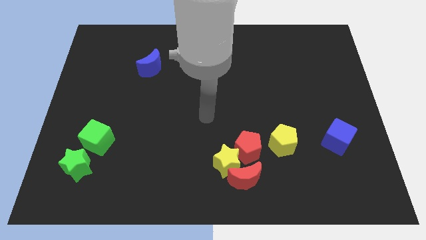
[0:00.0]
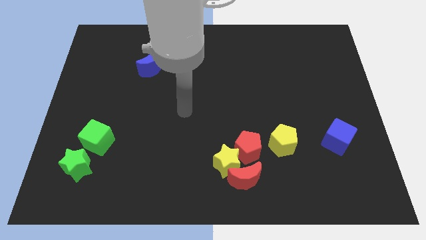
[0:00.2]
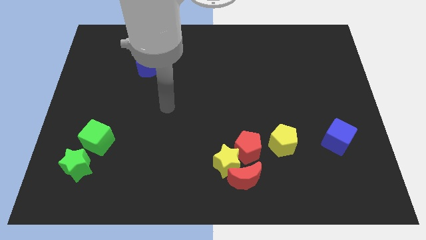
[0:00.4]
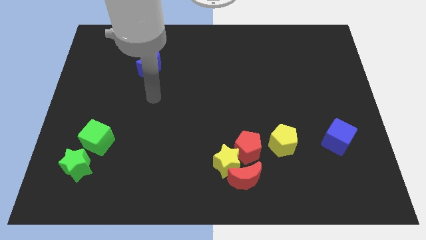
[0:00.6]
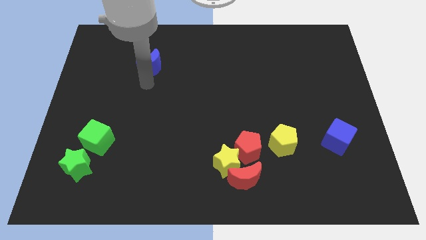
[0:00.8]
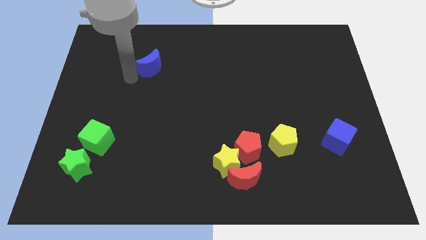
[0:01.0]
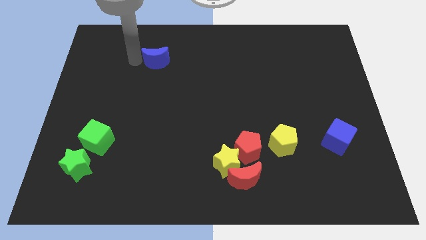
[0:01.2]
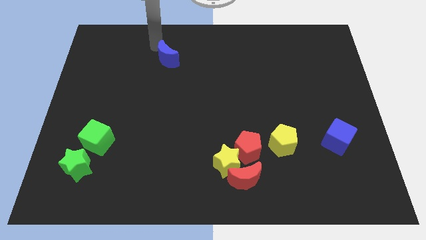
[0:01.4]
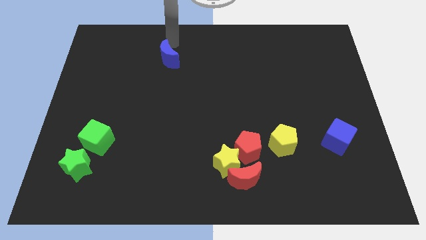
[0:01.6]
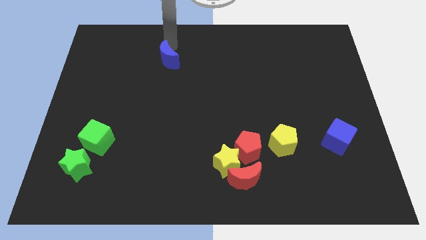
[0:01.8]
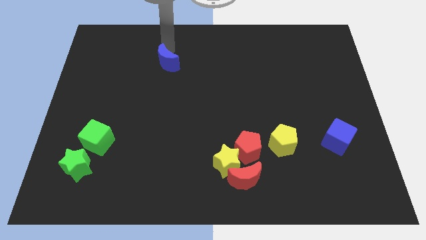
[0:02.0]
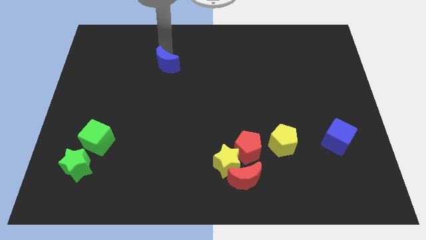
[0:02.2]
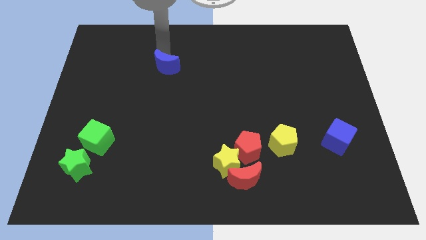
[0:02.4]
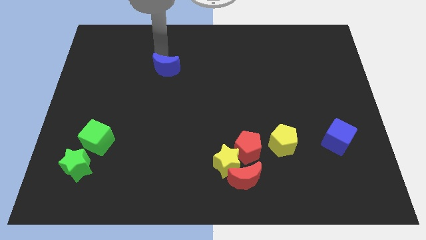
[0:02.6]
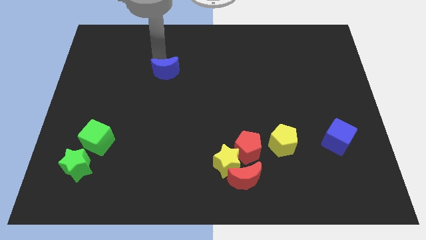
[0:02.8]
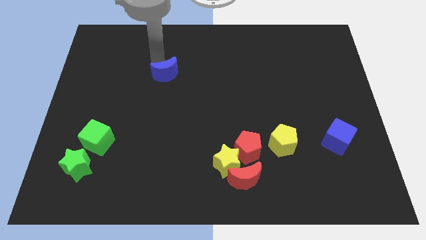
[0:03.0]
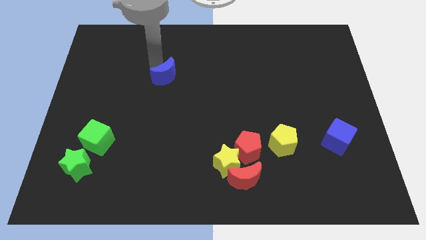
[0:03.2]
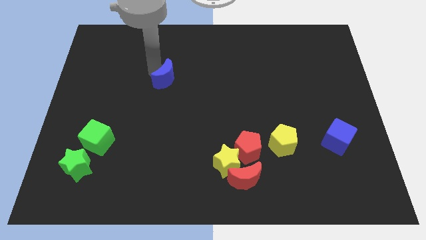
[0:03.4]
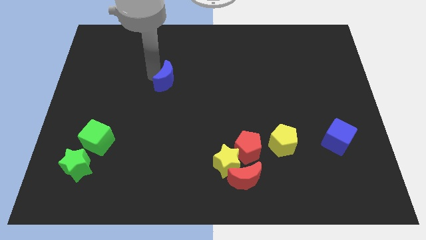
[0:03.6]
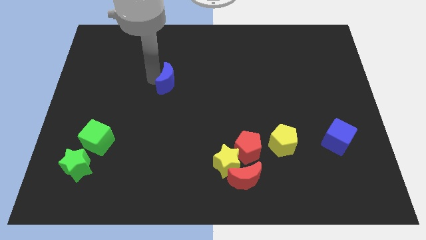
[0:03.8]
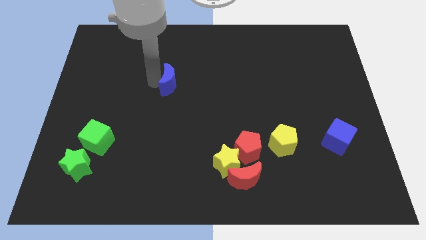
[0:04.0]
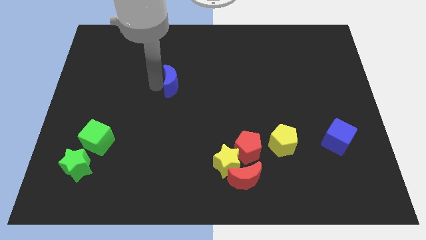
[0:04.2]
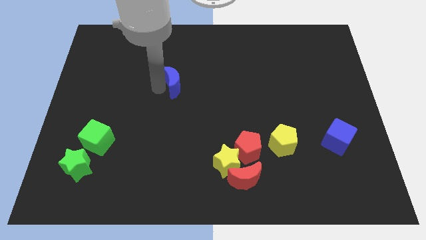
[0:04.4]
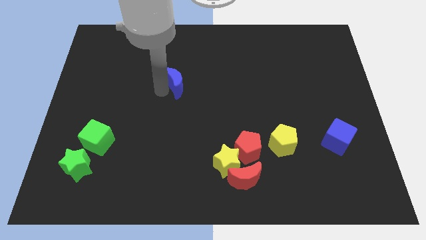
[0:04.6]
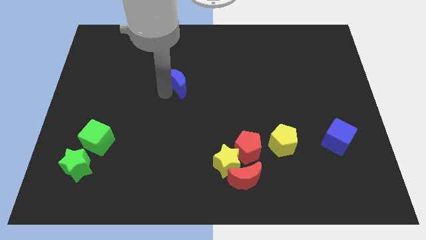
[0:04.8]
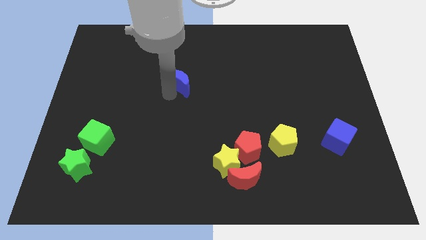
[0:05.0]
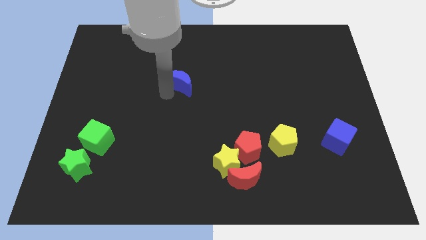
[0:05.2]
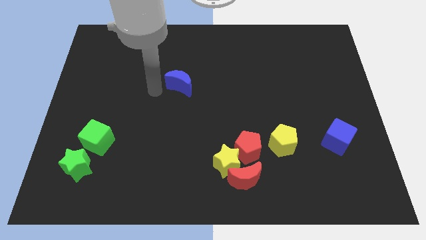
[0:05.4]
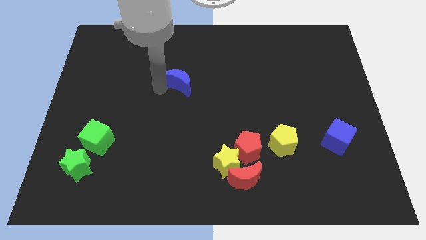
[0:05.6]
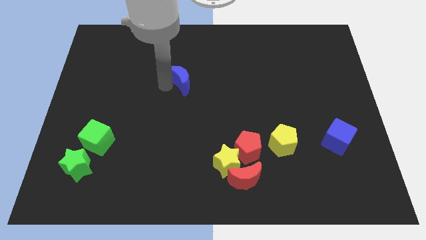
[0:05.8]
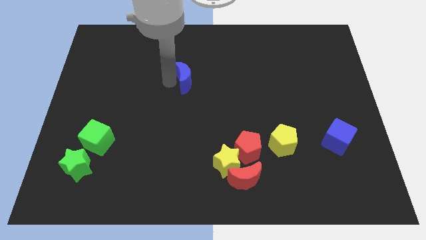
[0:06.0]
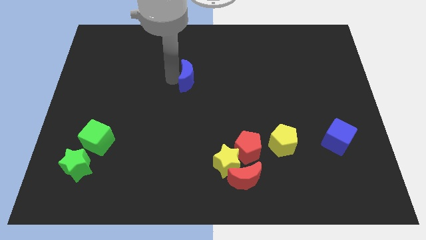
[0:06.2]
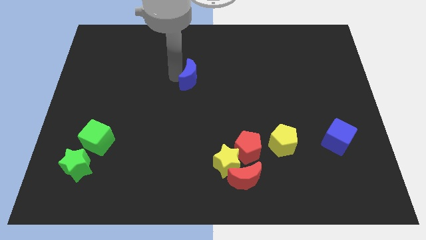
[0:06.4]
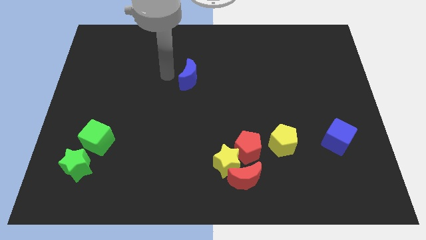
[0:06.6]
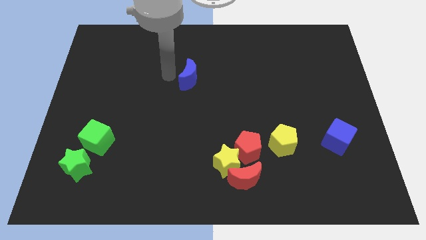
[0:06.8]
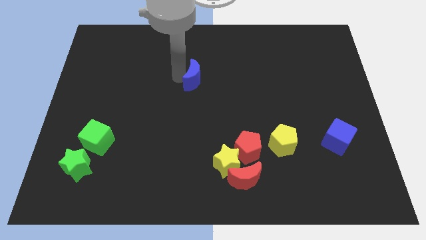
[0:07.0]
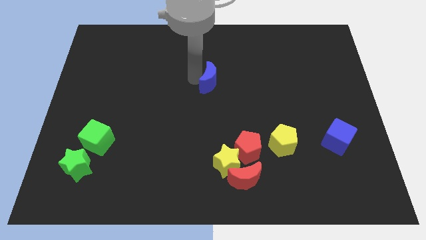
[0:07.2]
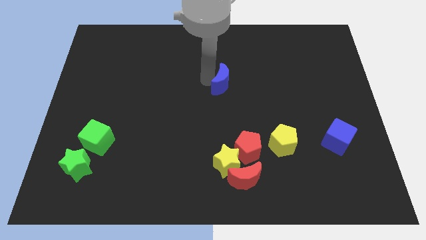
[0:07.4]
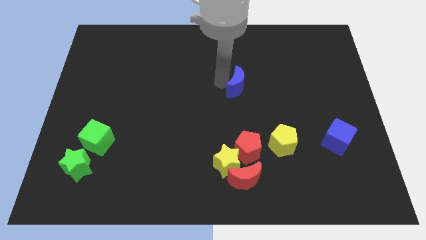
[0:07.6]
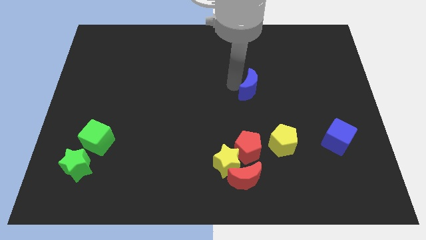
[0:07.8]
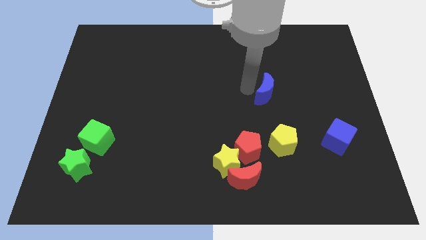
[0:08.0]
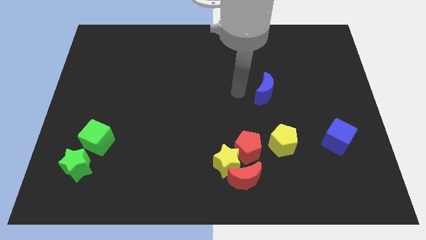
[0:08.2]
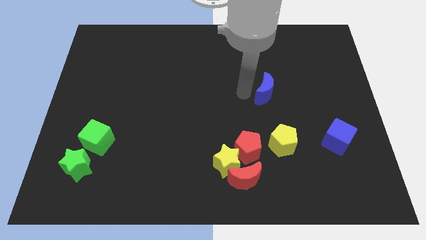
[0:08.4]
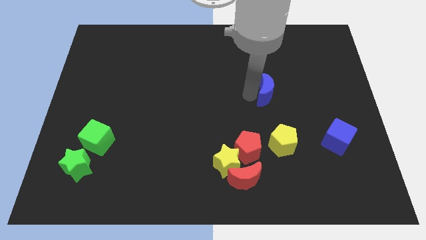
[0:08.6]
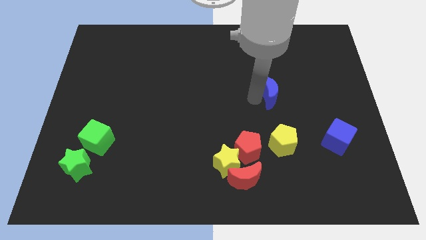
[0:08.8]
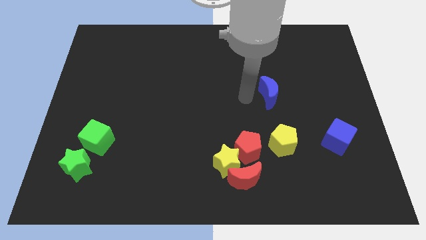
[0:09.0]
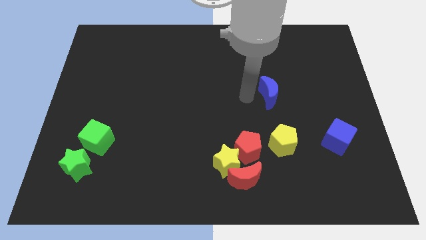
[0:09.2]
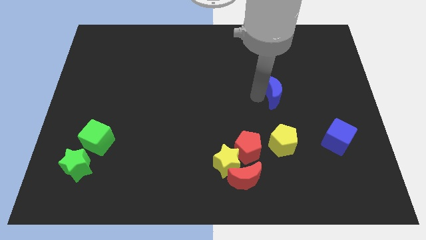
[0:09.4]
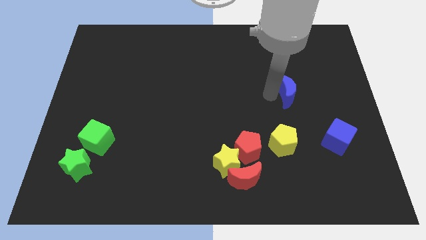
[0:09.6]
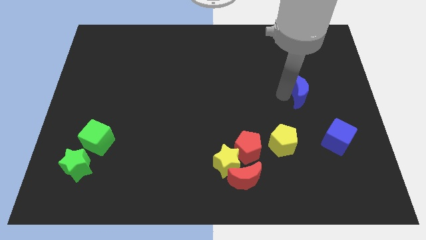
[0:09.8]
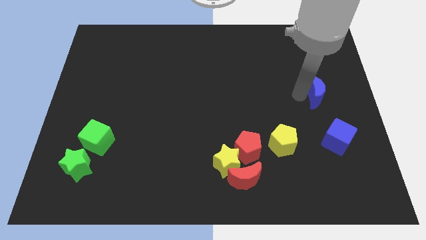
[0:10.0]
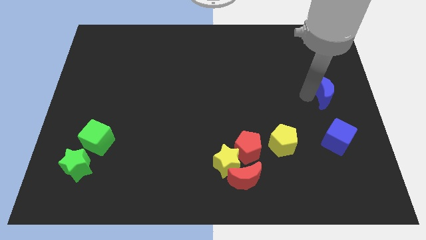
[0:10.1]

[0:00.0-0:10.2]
put the blue moon to the center right

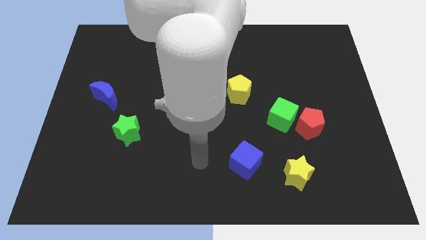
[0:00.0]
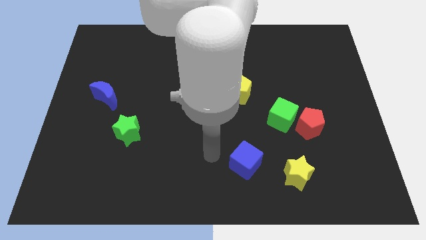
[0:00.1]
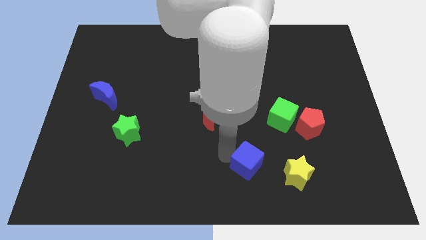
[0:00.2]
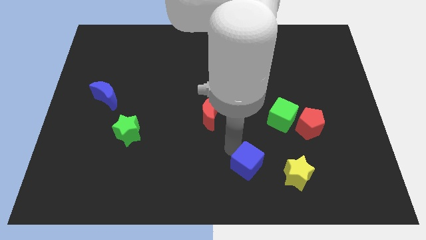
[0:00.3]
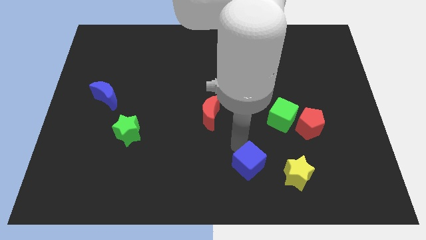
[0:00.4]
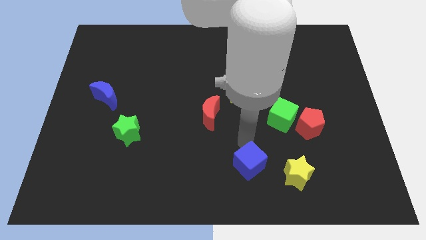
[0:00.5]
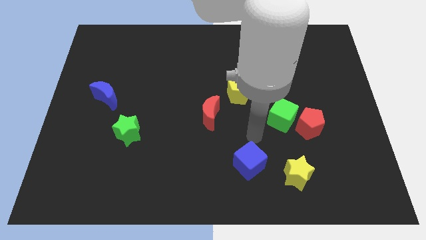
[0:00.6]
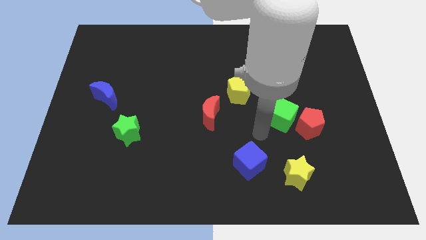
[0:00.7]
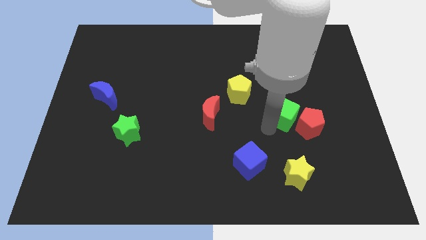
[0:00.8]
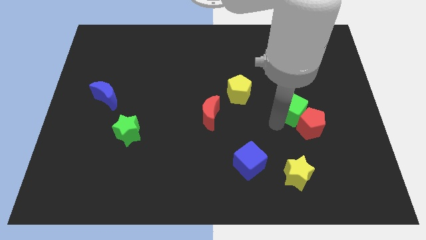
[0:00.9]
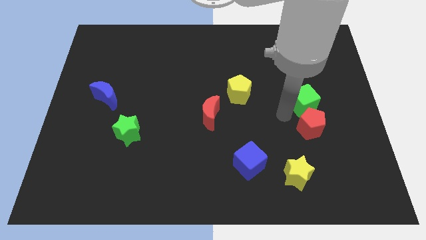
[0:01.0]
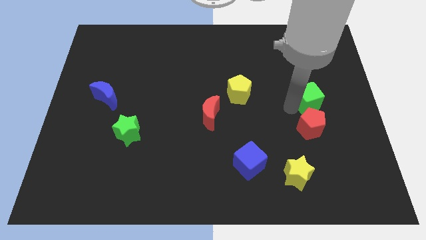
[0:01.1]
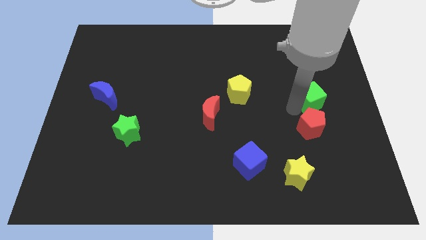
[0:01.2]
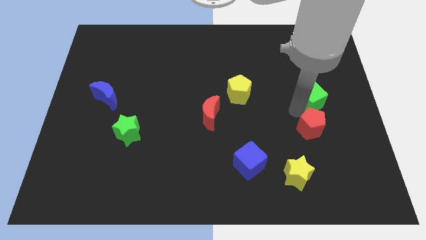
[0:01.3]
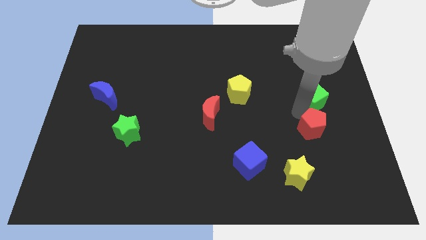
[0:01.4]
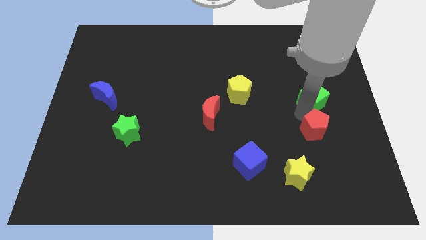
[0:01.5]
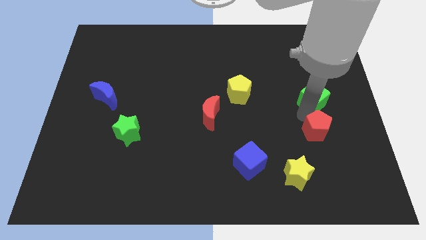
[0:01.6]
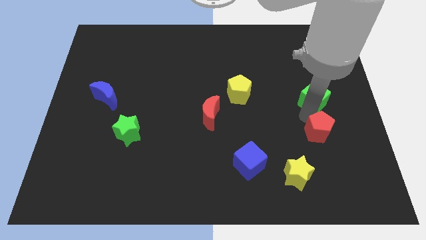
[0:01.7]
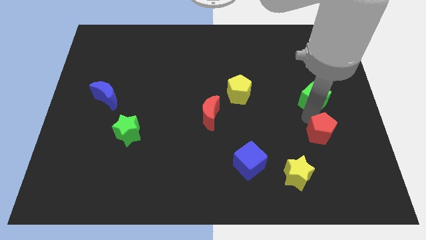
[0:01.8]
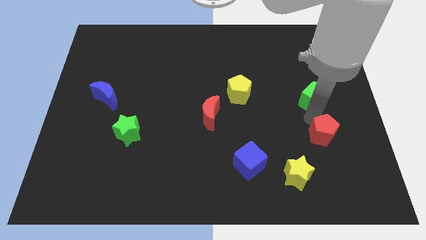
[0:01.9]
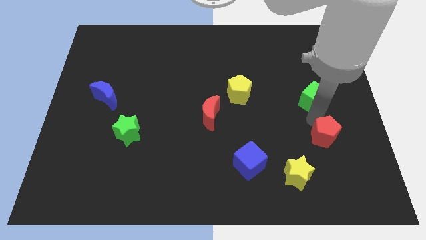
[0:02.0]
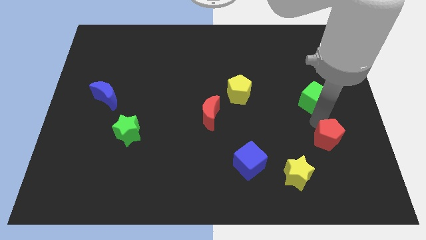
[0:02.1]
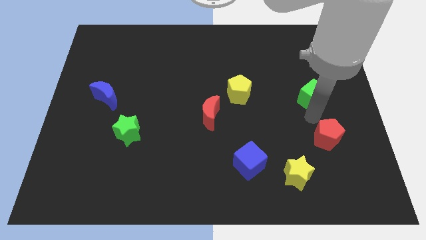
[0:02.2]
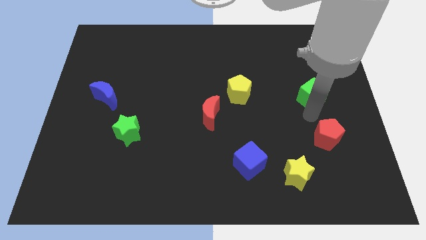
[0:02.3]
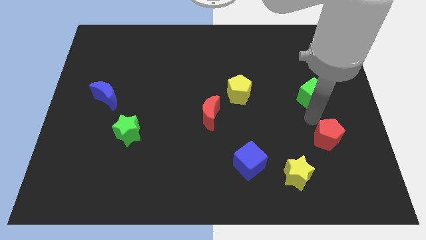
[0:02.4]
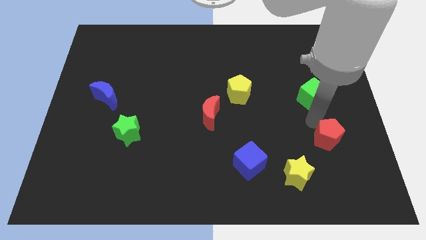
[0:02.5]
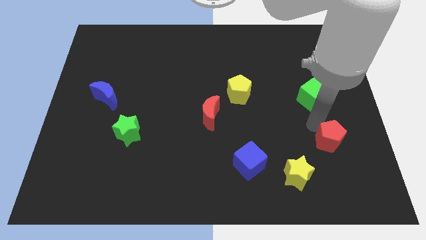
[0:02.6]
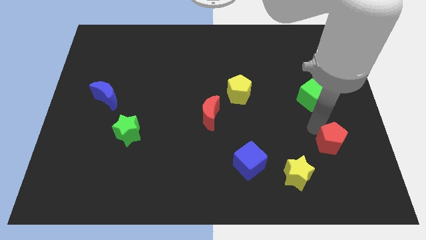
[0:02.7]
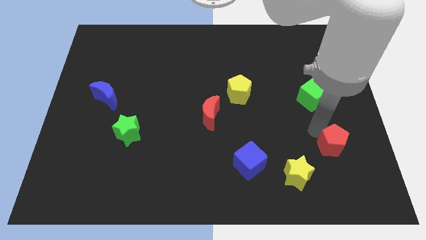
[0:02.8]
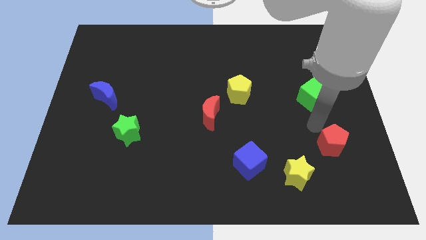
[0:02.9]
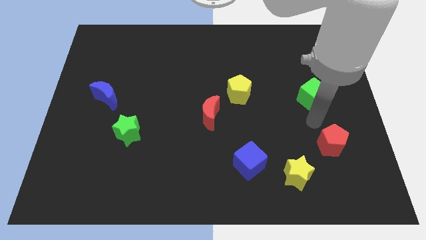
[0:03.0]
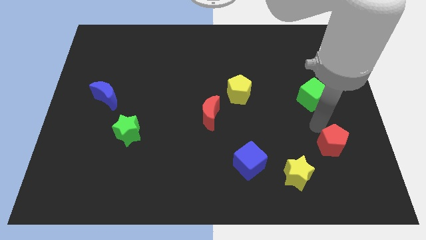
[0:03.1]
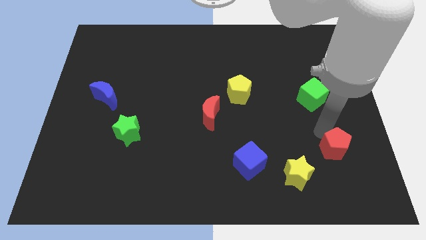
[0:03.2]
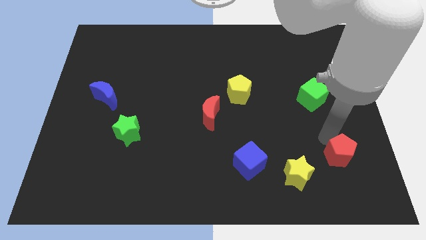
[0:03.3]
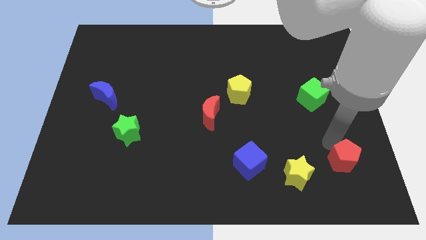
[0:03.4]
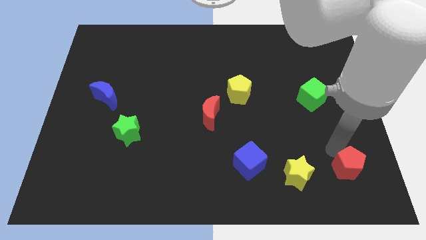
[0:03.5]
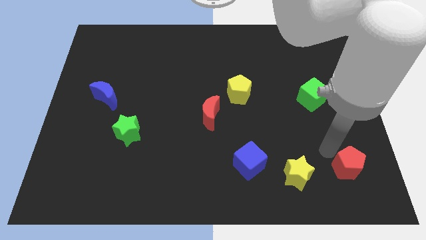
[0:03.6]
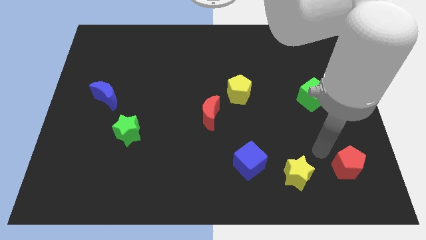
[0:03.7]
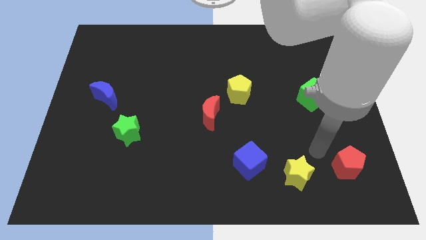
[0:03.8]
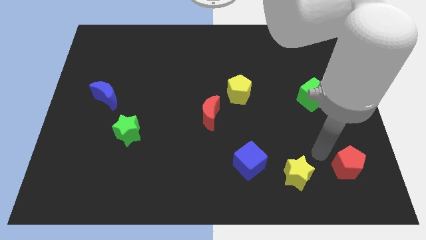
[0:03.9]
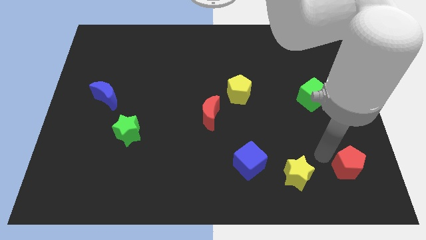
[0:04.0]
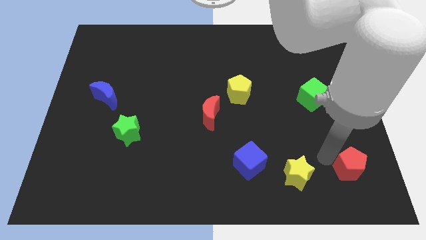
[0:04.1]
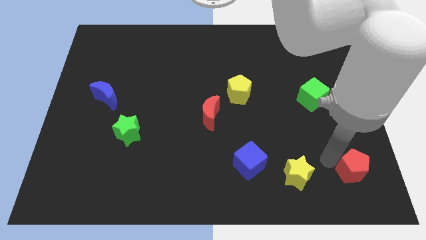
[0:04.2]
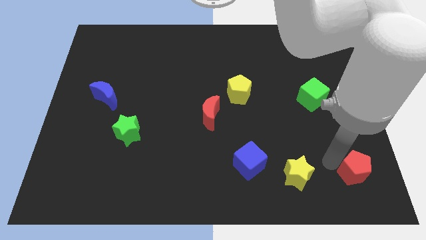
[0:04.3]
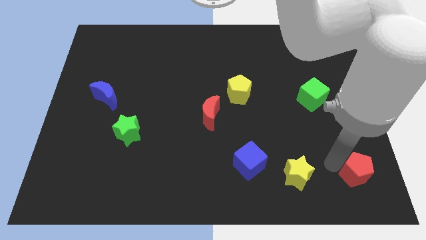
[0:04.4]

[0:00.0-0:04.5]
move the red pentagon to the bottom right corner
